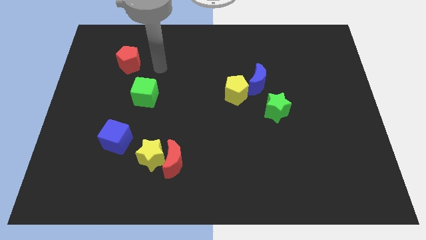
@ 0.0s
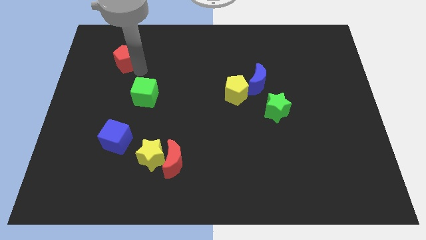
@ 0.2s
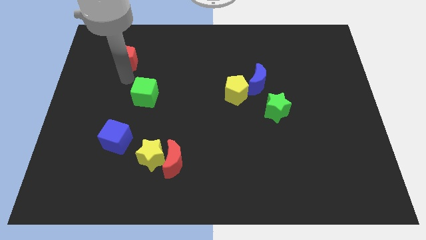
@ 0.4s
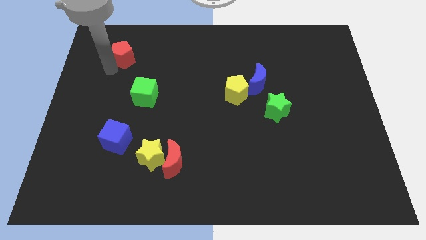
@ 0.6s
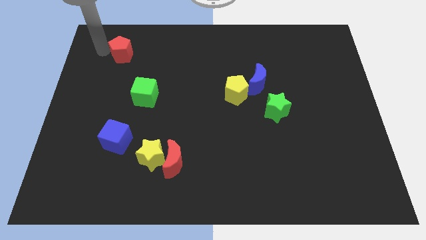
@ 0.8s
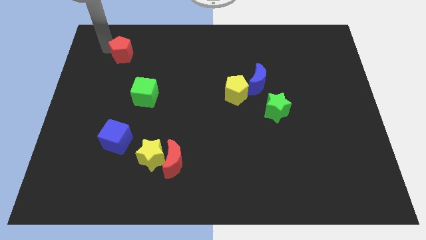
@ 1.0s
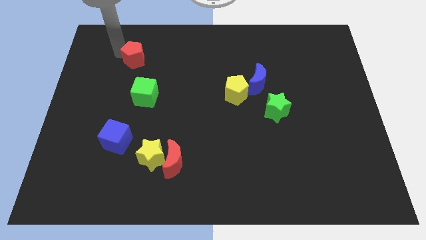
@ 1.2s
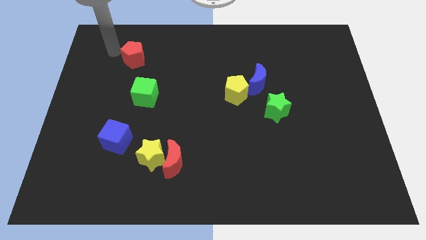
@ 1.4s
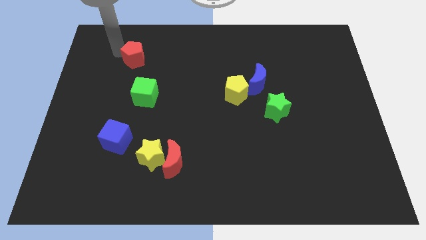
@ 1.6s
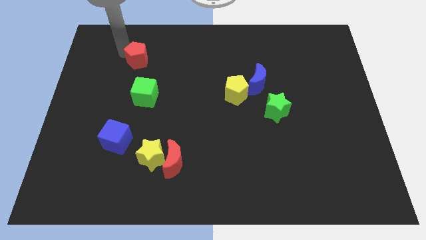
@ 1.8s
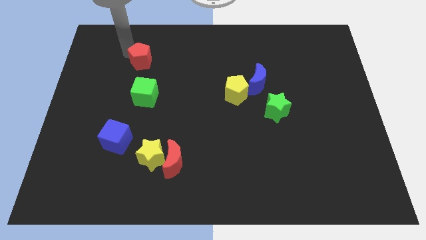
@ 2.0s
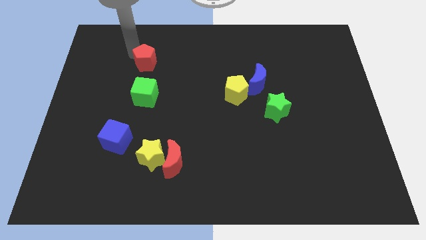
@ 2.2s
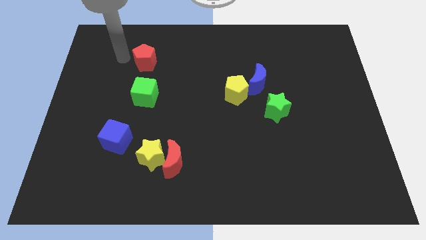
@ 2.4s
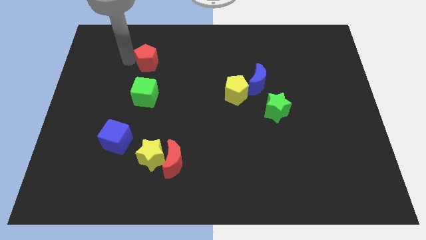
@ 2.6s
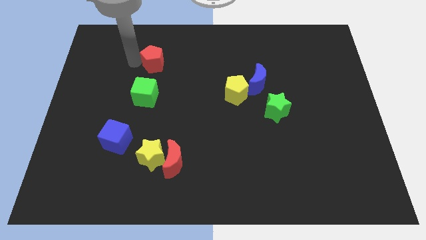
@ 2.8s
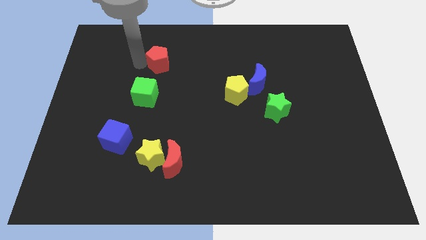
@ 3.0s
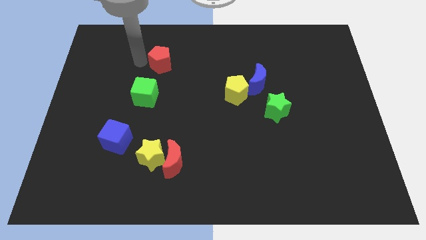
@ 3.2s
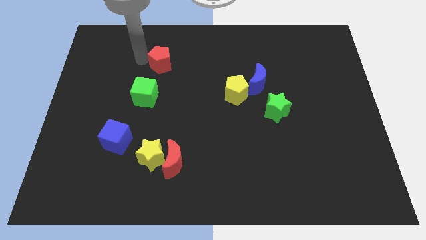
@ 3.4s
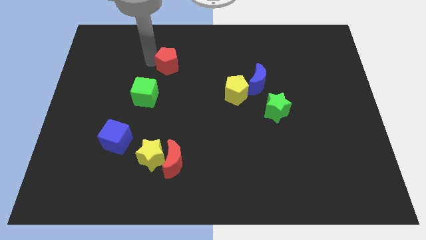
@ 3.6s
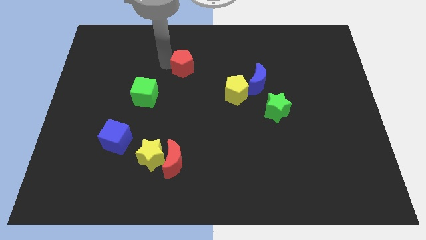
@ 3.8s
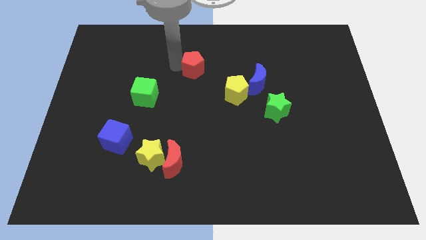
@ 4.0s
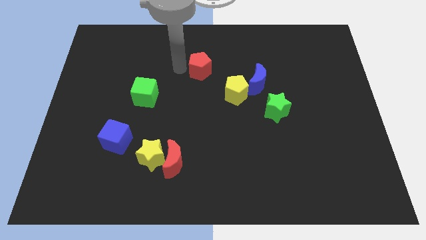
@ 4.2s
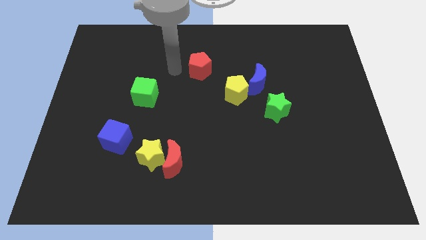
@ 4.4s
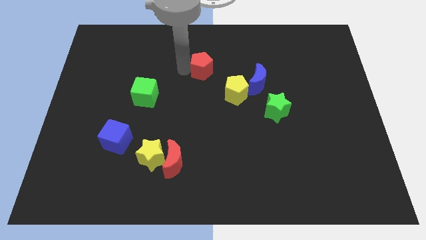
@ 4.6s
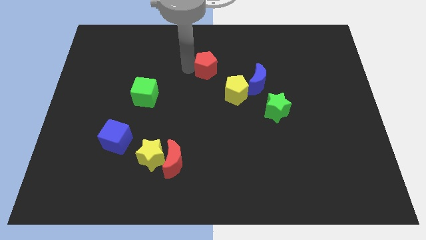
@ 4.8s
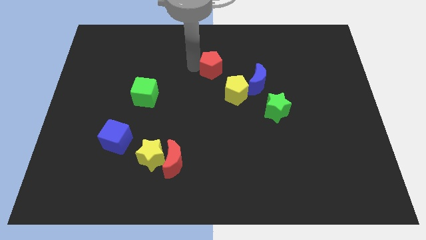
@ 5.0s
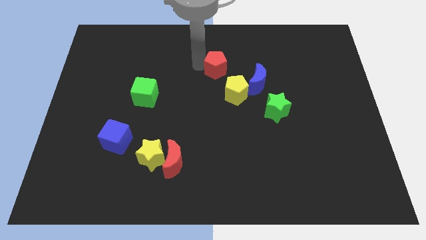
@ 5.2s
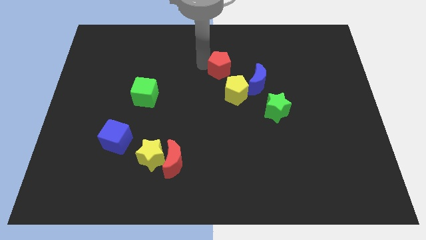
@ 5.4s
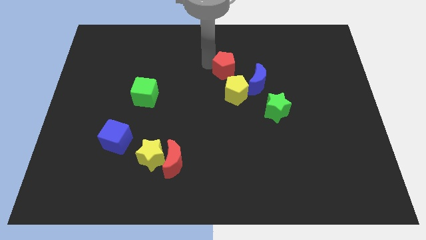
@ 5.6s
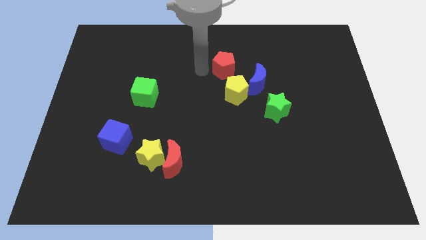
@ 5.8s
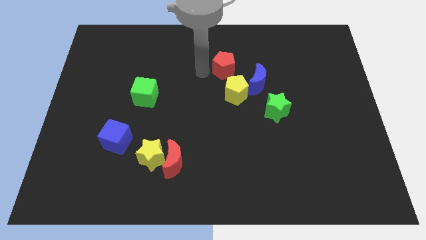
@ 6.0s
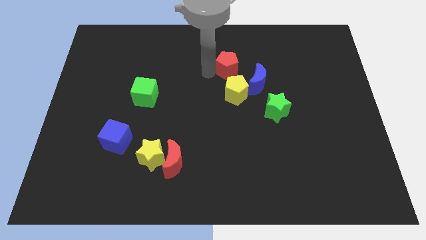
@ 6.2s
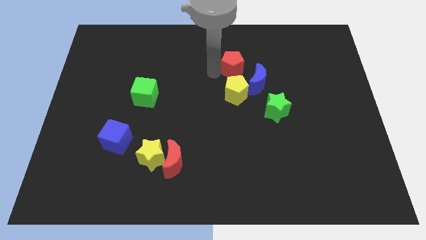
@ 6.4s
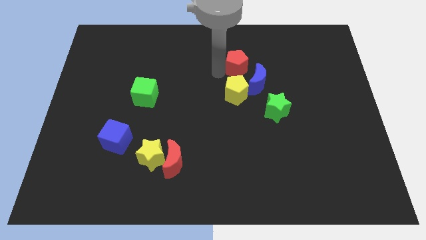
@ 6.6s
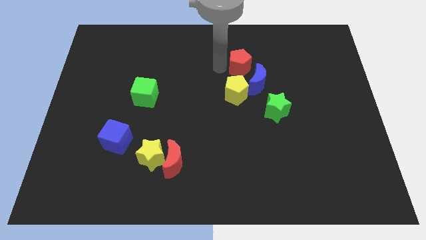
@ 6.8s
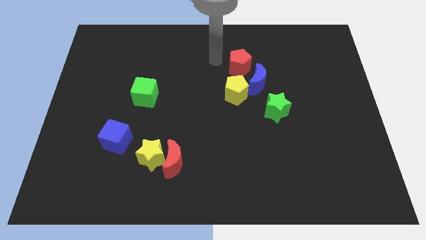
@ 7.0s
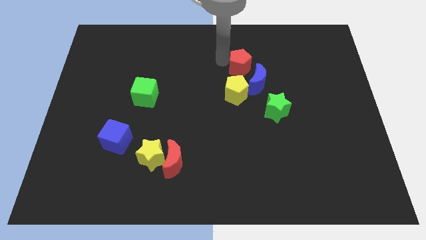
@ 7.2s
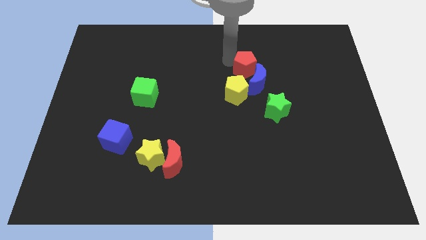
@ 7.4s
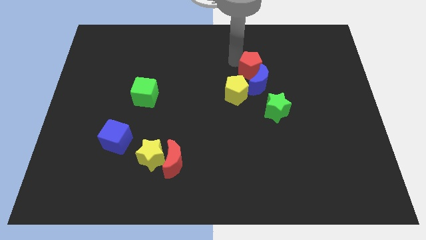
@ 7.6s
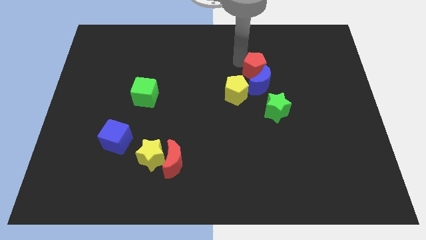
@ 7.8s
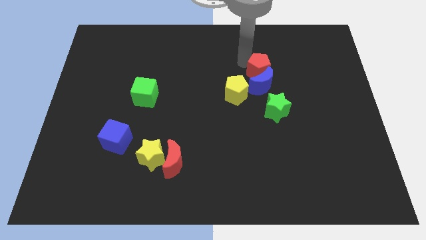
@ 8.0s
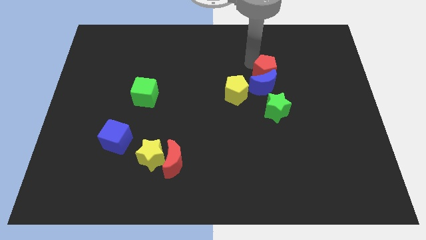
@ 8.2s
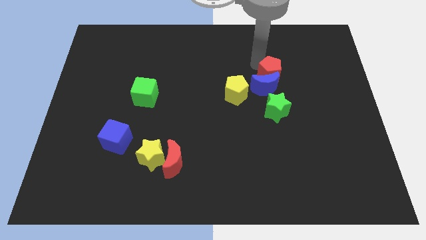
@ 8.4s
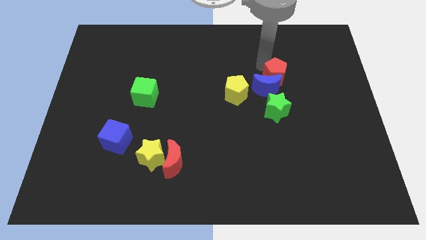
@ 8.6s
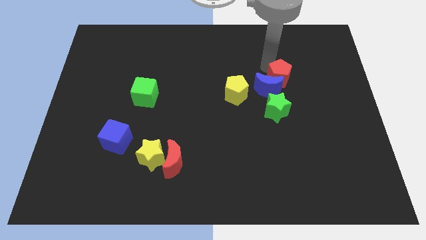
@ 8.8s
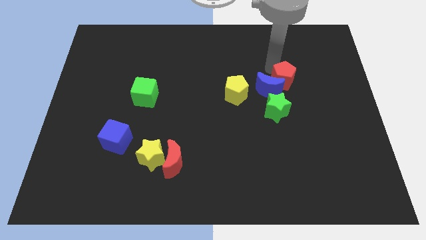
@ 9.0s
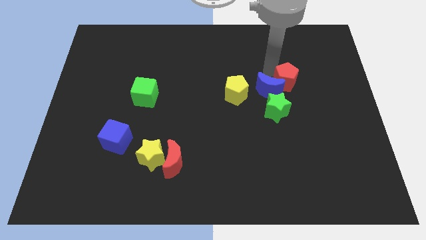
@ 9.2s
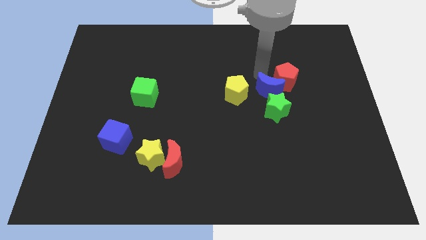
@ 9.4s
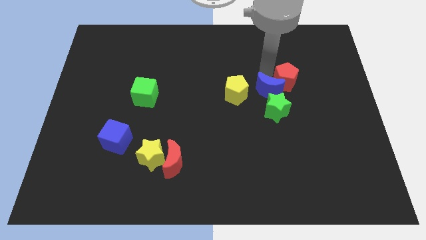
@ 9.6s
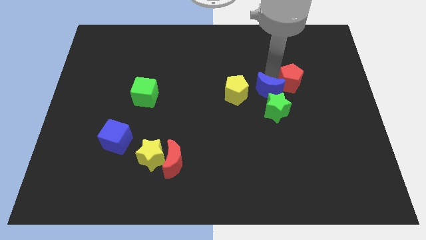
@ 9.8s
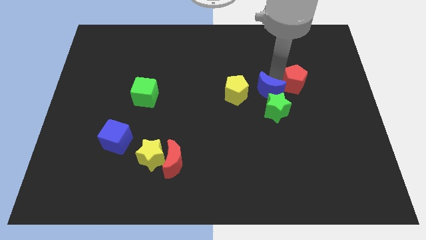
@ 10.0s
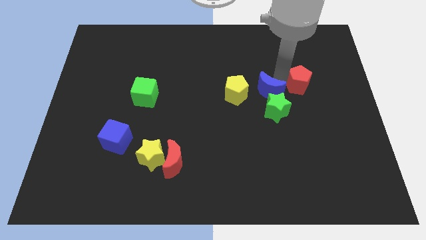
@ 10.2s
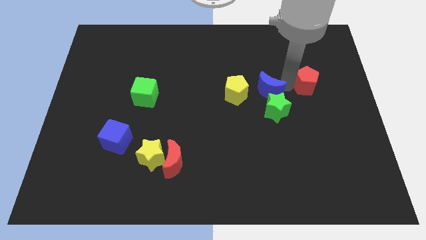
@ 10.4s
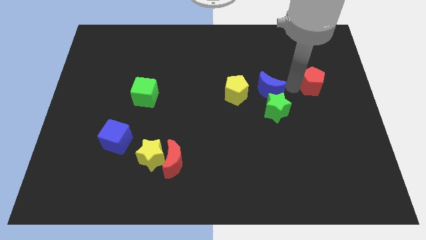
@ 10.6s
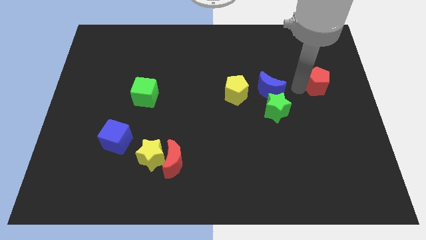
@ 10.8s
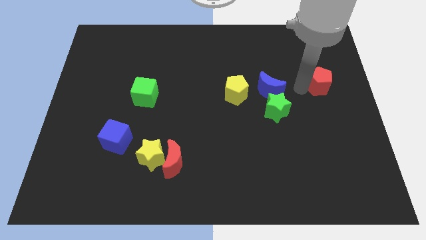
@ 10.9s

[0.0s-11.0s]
move the red pentagon to the right side of the board

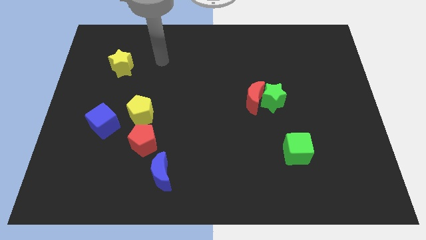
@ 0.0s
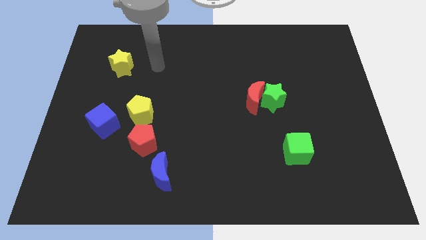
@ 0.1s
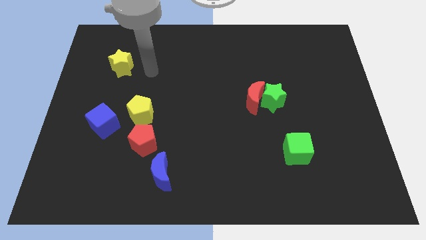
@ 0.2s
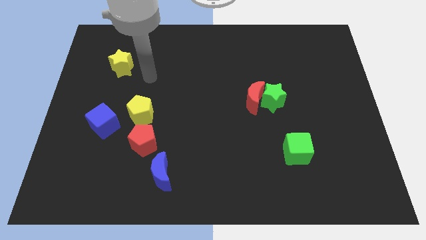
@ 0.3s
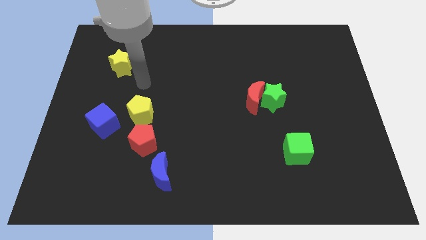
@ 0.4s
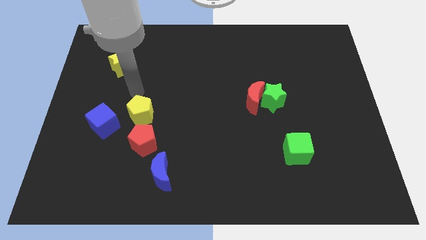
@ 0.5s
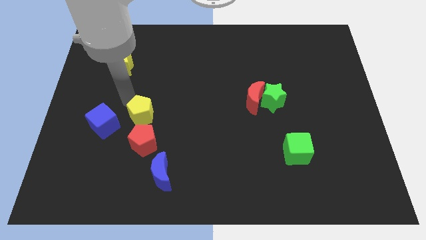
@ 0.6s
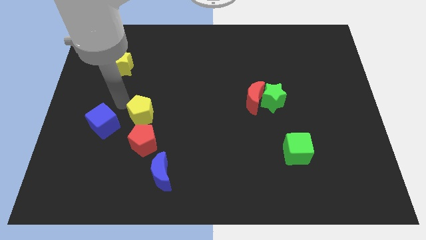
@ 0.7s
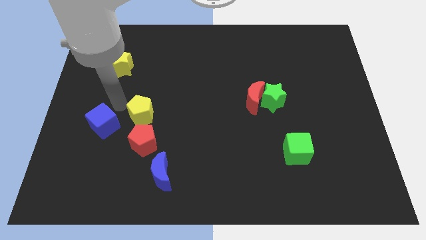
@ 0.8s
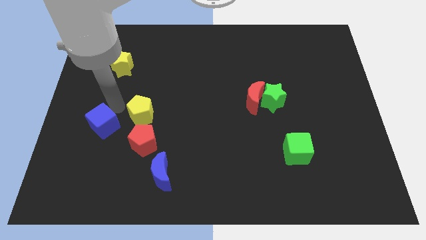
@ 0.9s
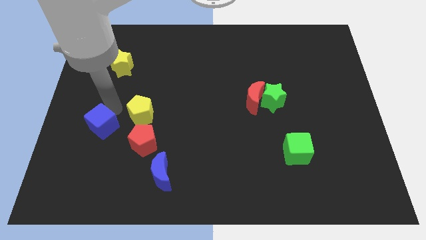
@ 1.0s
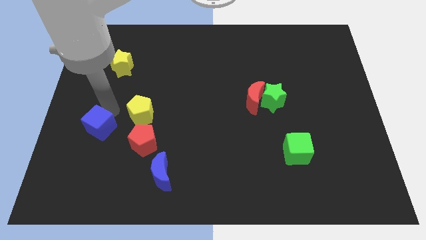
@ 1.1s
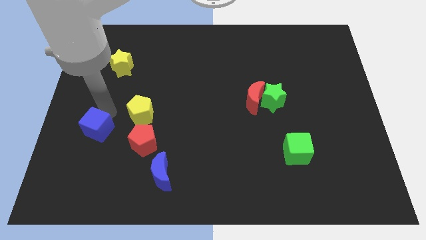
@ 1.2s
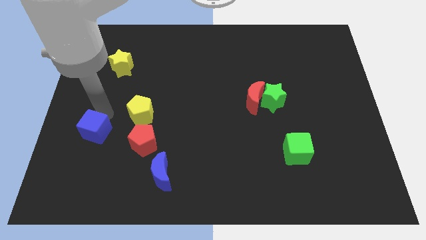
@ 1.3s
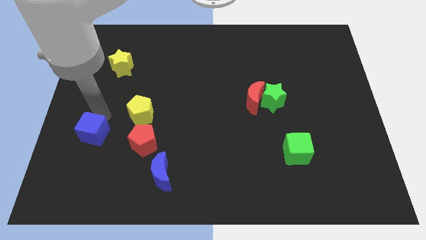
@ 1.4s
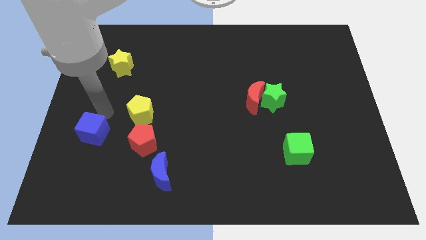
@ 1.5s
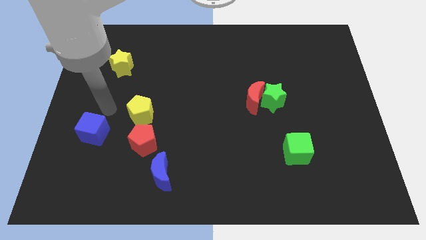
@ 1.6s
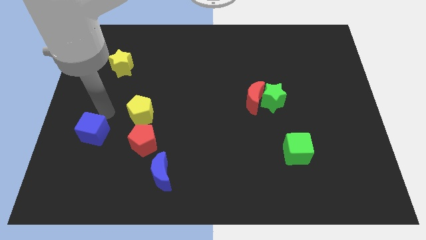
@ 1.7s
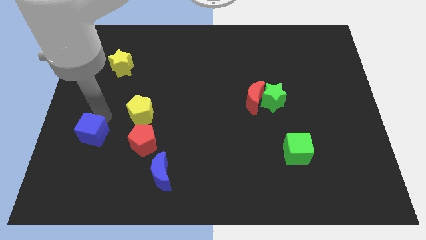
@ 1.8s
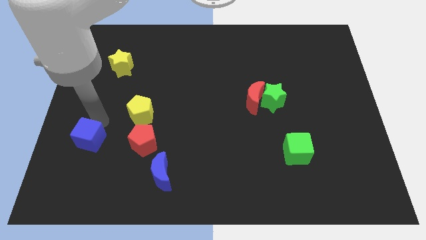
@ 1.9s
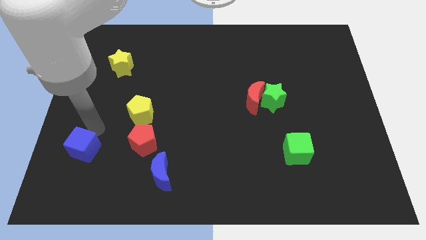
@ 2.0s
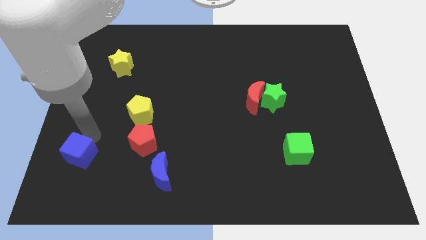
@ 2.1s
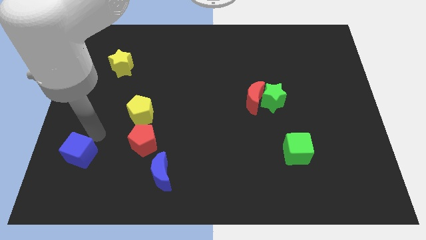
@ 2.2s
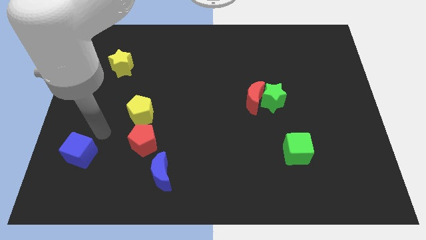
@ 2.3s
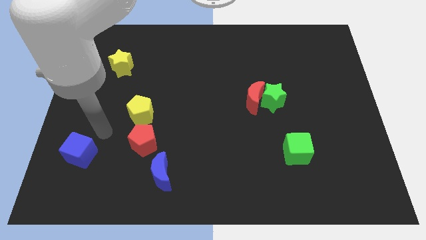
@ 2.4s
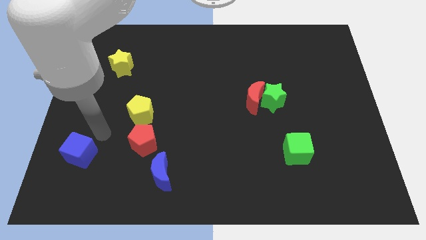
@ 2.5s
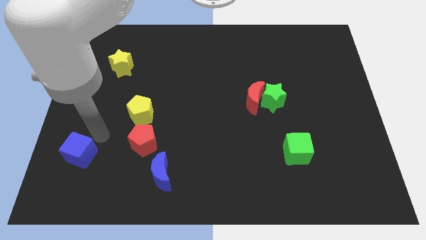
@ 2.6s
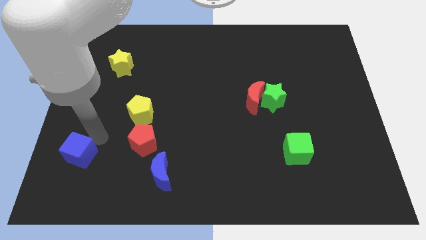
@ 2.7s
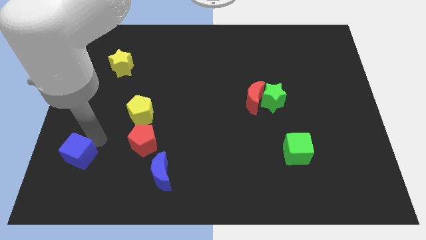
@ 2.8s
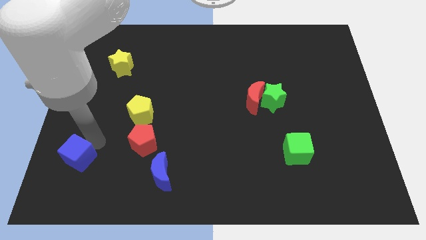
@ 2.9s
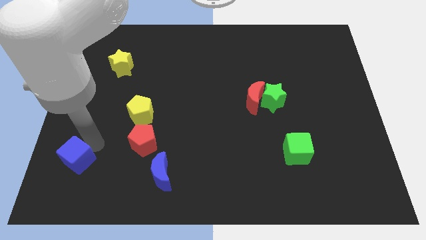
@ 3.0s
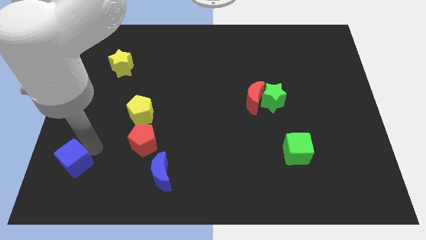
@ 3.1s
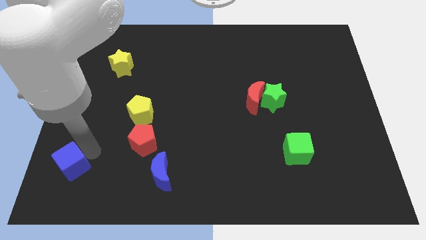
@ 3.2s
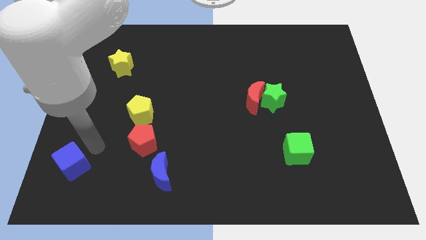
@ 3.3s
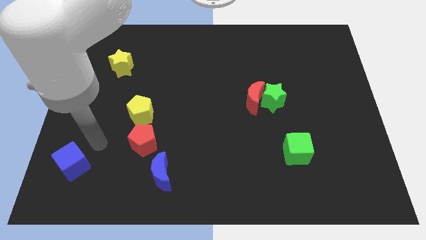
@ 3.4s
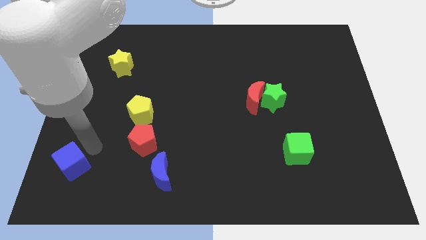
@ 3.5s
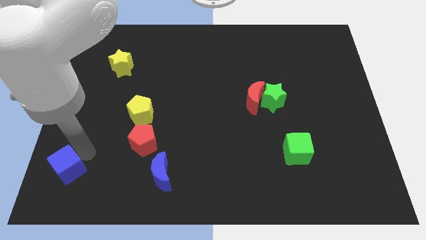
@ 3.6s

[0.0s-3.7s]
push the blue cube to the bottom left of the board
